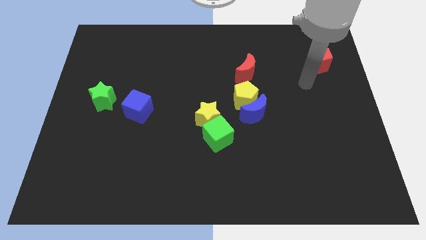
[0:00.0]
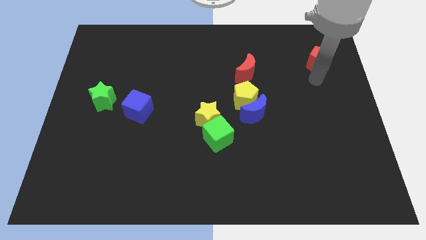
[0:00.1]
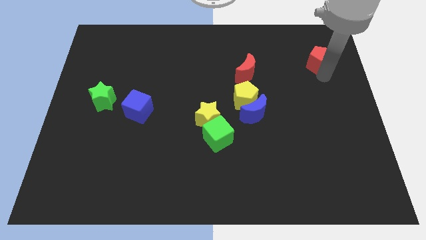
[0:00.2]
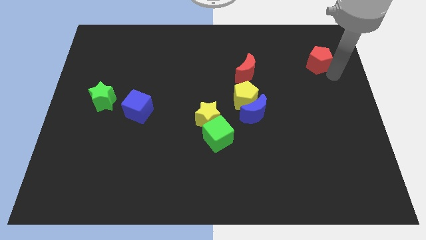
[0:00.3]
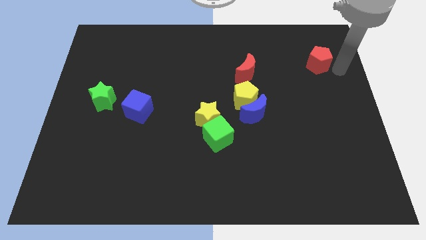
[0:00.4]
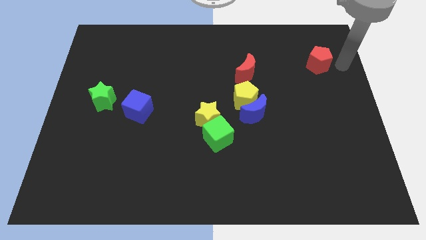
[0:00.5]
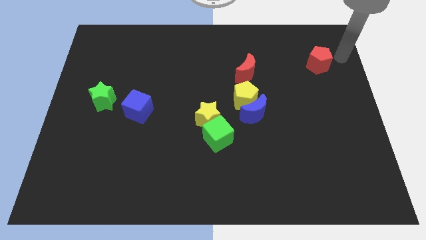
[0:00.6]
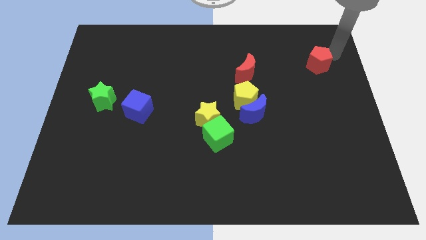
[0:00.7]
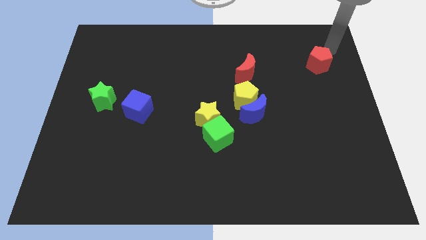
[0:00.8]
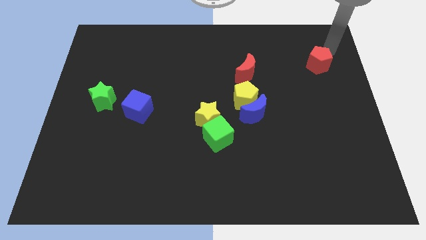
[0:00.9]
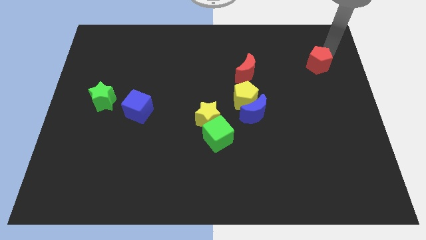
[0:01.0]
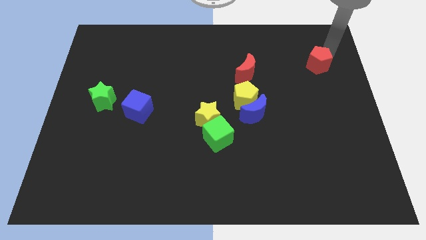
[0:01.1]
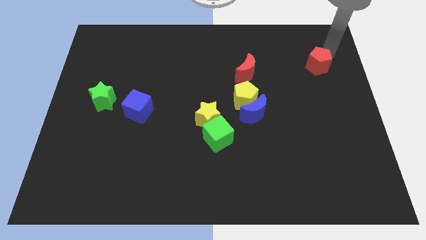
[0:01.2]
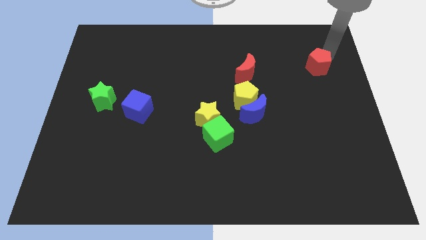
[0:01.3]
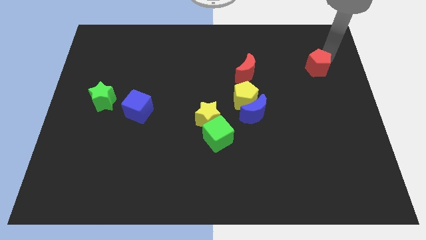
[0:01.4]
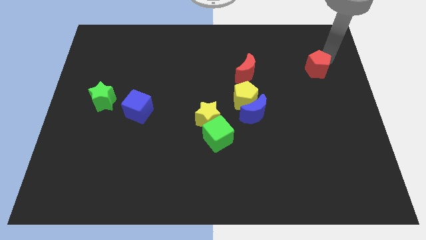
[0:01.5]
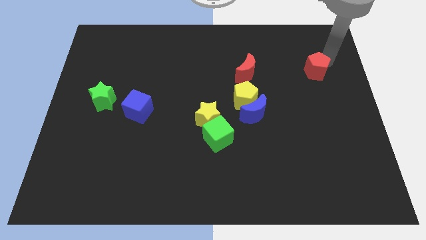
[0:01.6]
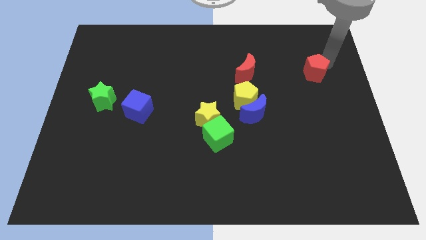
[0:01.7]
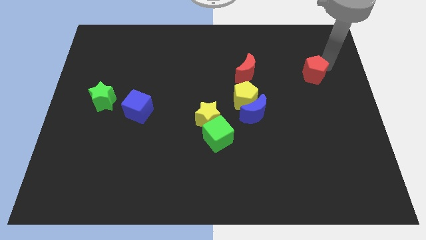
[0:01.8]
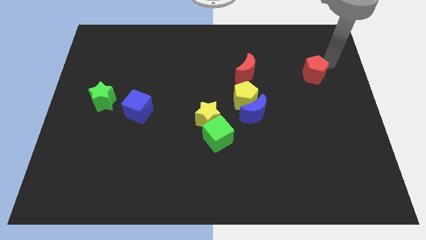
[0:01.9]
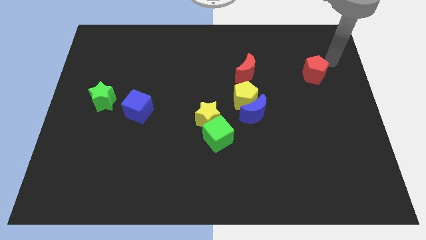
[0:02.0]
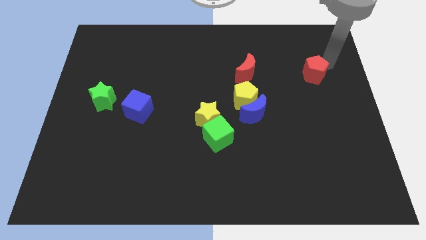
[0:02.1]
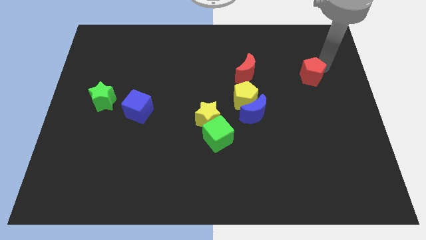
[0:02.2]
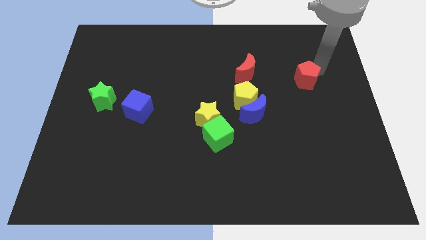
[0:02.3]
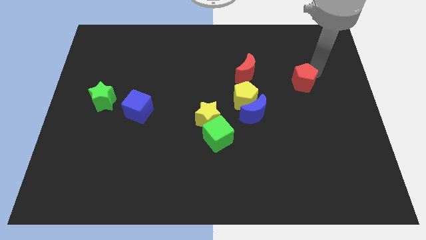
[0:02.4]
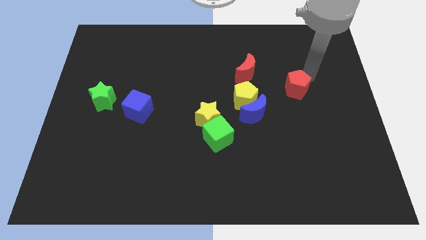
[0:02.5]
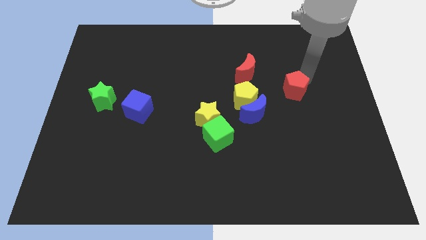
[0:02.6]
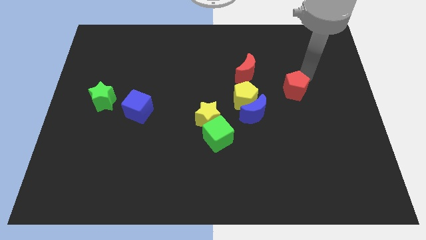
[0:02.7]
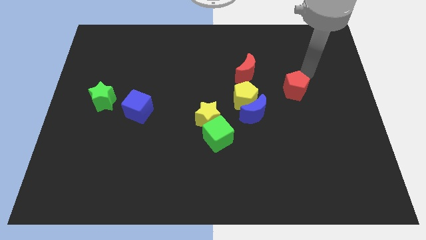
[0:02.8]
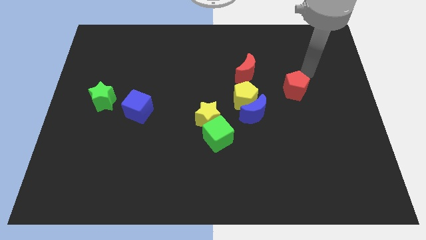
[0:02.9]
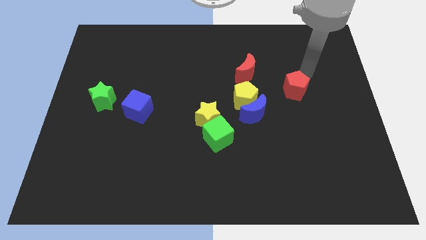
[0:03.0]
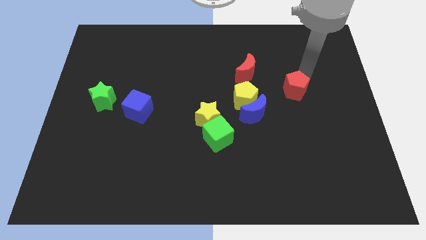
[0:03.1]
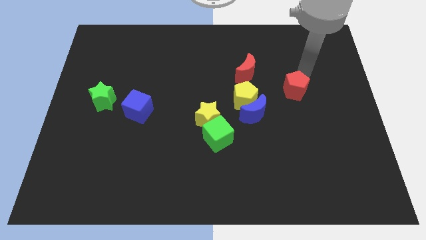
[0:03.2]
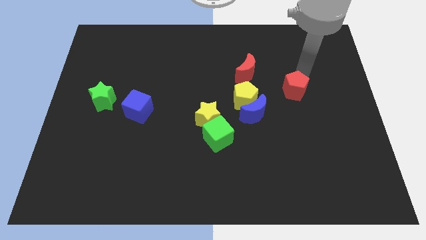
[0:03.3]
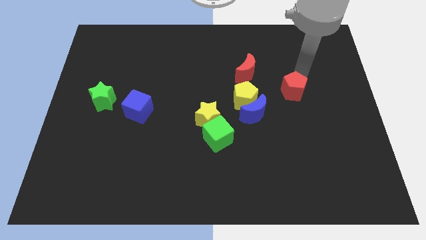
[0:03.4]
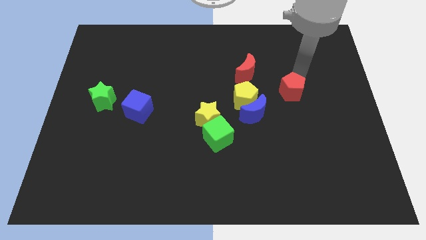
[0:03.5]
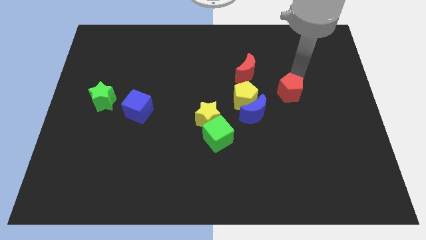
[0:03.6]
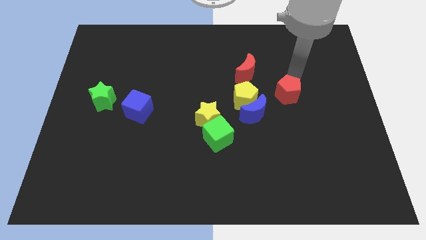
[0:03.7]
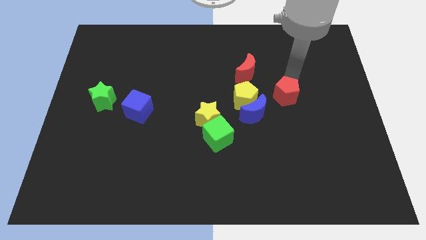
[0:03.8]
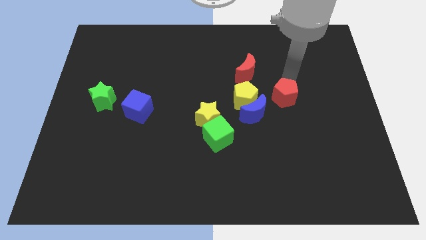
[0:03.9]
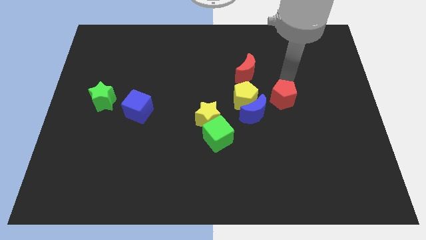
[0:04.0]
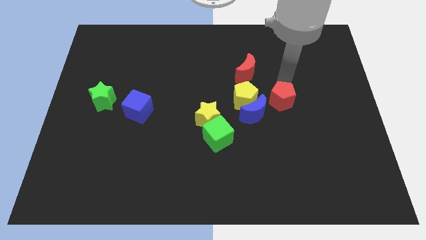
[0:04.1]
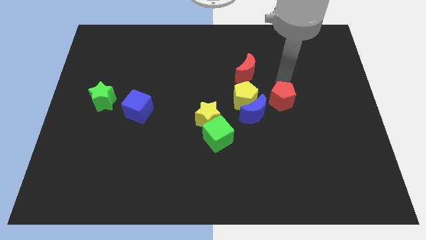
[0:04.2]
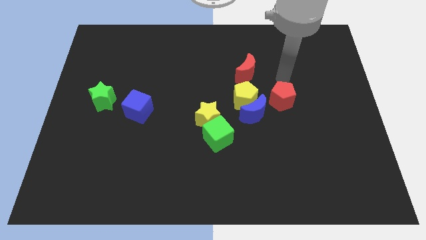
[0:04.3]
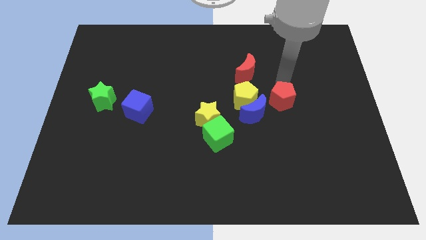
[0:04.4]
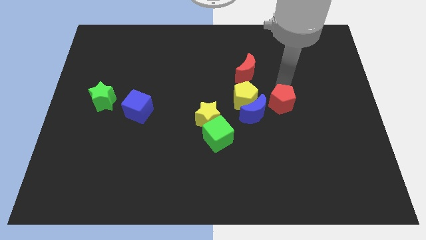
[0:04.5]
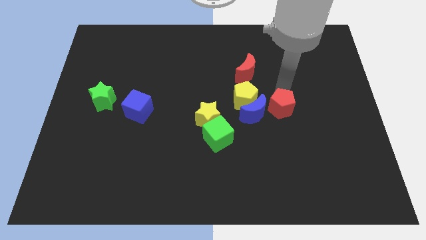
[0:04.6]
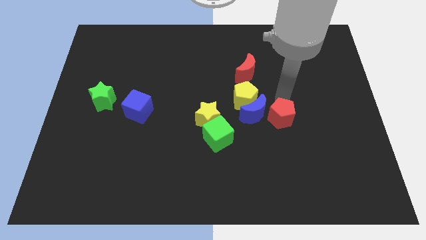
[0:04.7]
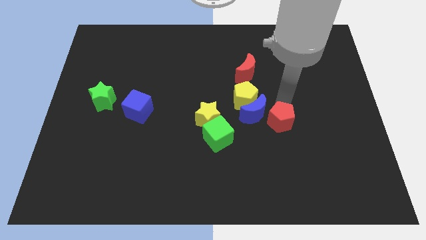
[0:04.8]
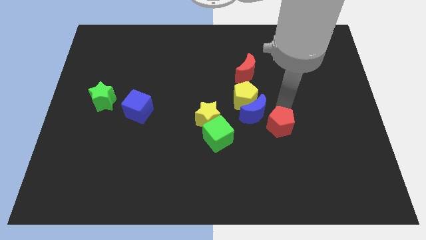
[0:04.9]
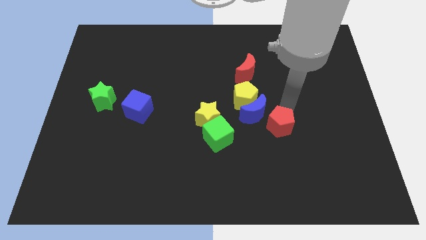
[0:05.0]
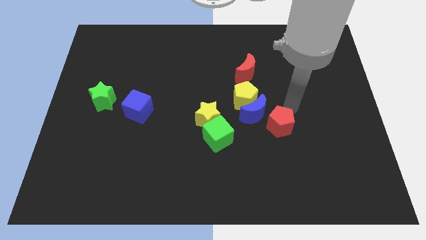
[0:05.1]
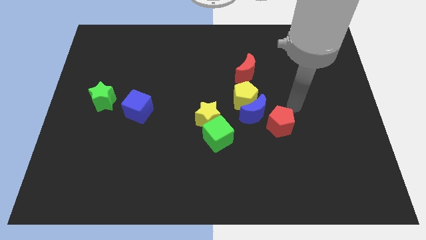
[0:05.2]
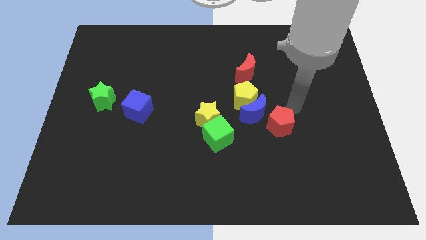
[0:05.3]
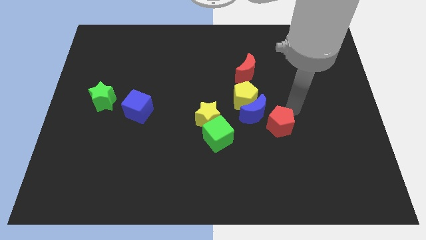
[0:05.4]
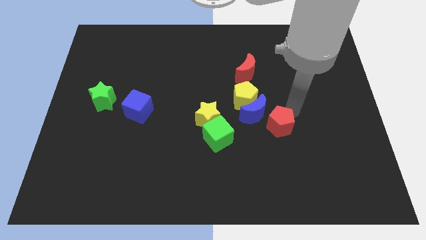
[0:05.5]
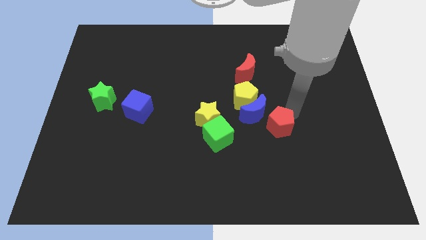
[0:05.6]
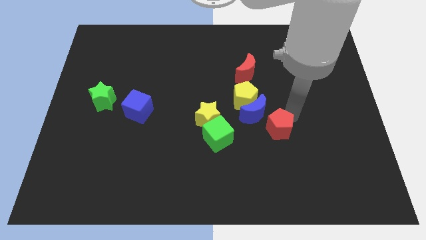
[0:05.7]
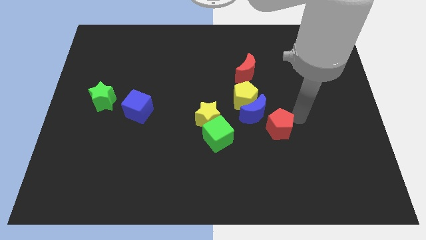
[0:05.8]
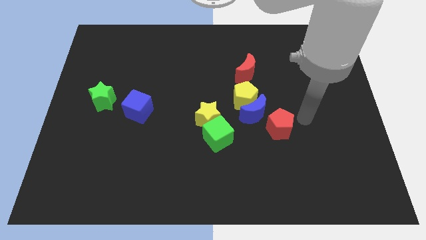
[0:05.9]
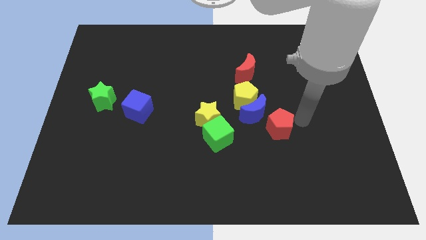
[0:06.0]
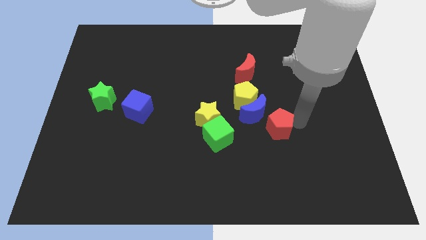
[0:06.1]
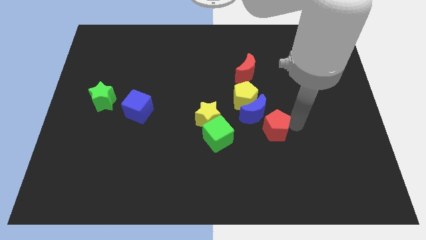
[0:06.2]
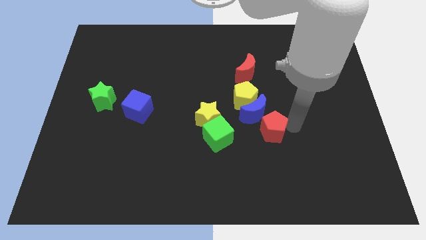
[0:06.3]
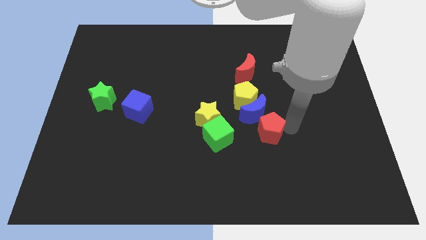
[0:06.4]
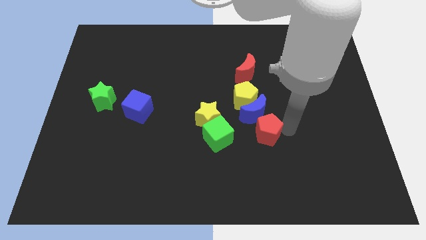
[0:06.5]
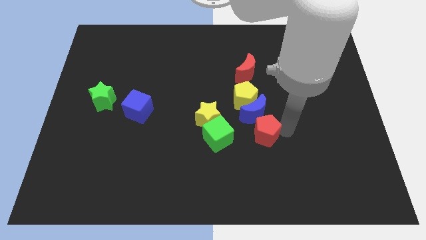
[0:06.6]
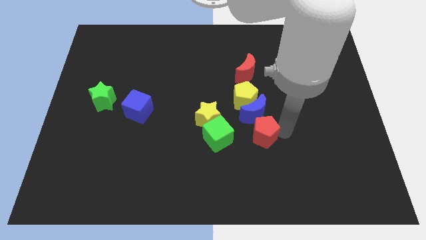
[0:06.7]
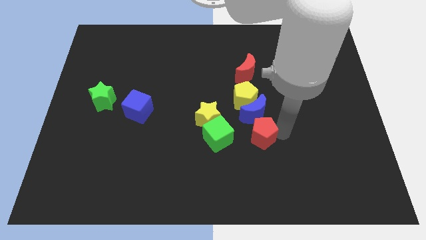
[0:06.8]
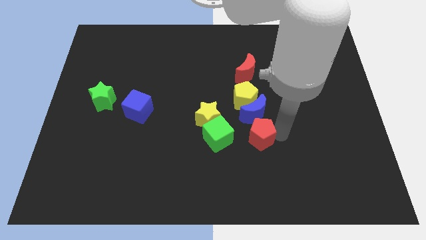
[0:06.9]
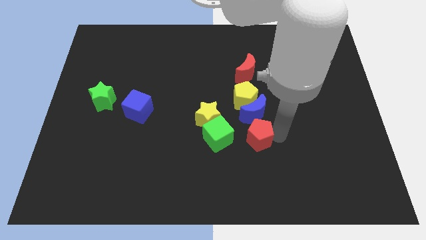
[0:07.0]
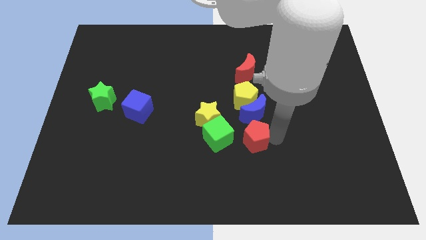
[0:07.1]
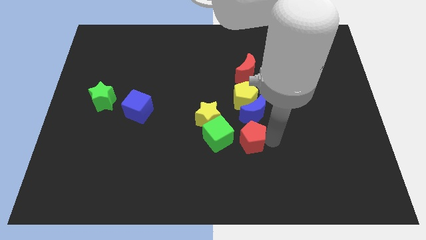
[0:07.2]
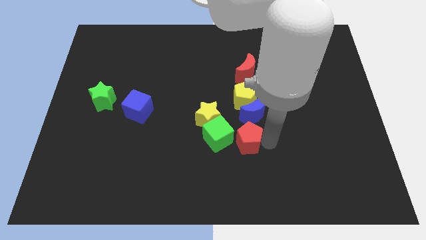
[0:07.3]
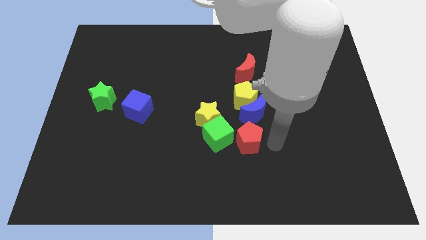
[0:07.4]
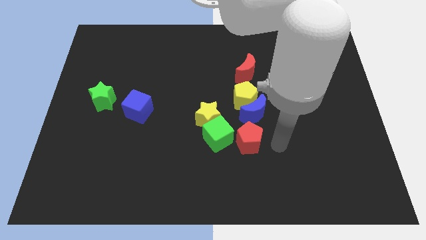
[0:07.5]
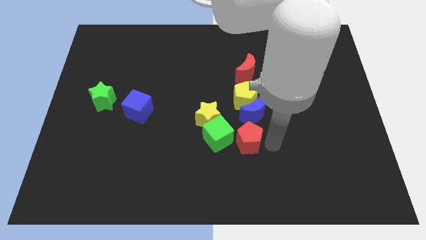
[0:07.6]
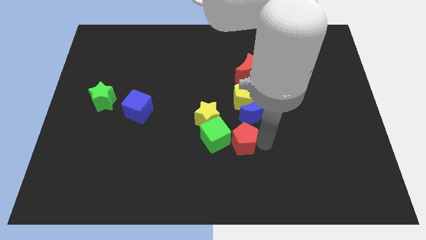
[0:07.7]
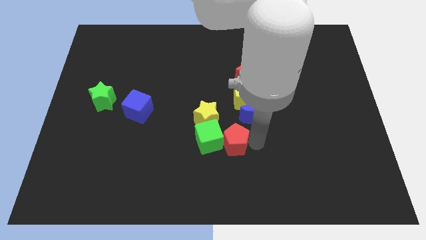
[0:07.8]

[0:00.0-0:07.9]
put the red pentagon close to the green cube
